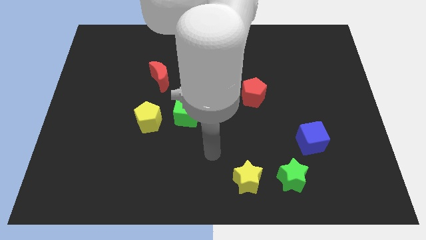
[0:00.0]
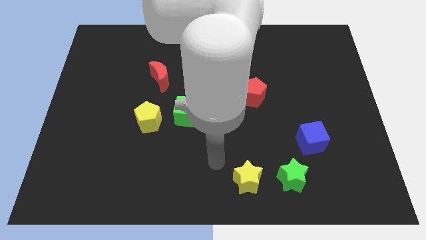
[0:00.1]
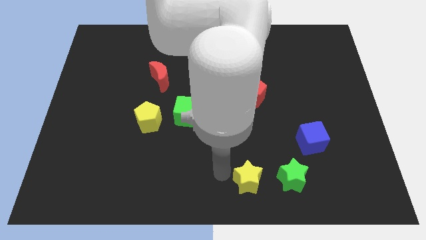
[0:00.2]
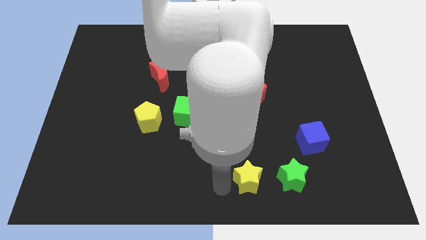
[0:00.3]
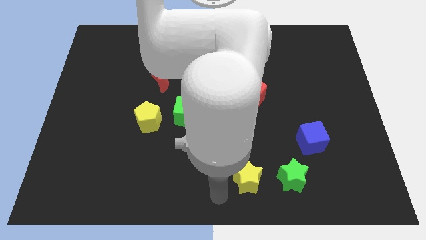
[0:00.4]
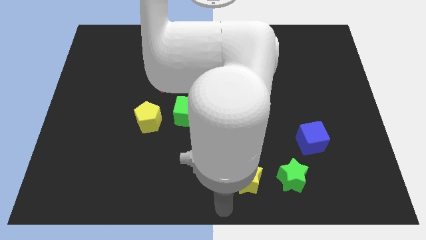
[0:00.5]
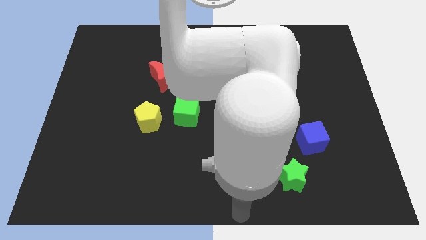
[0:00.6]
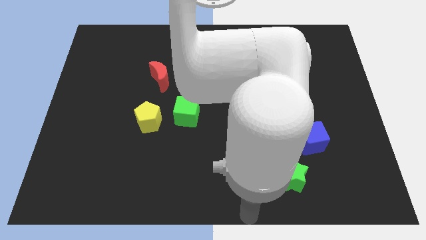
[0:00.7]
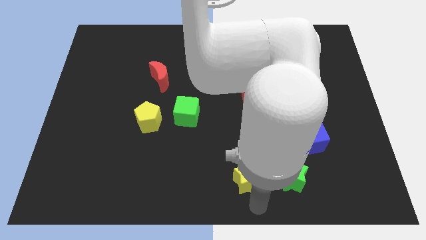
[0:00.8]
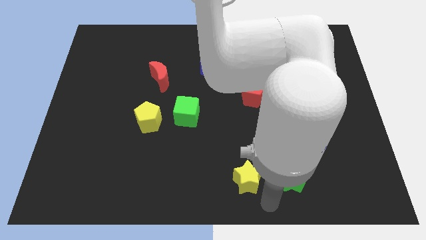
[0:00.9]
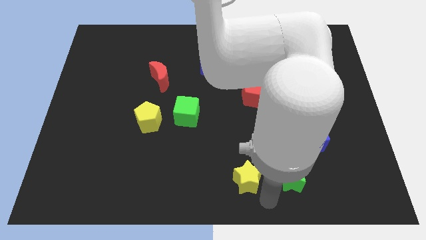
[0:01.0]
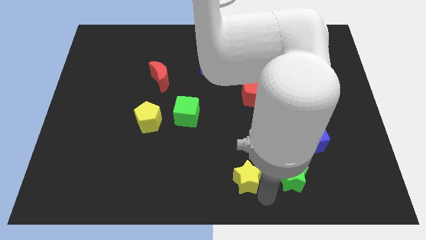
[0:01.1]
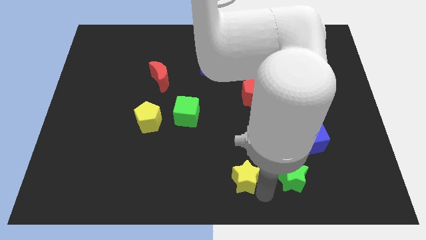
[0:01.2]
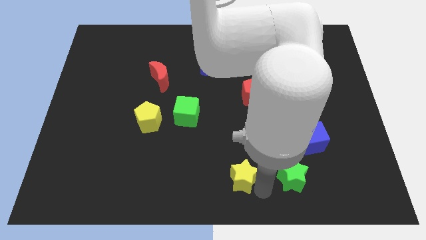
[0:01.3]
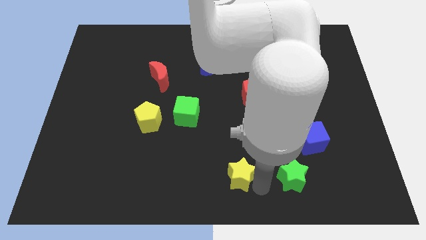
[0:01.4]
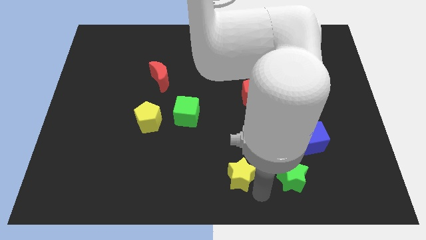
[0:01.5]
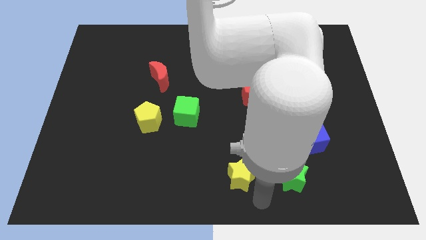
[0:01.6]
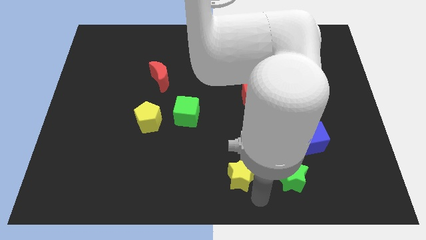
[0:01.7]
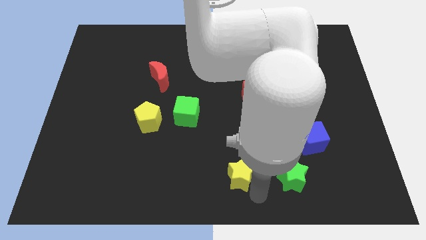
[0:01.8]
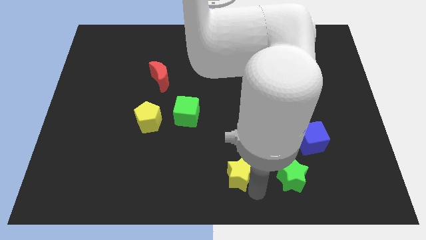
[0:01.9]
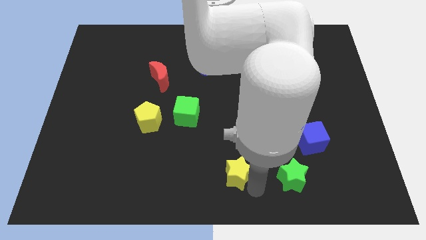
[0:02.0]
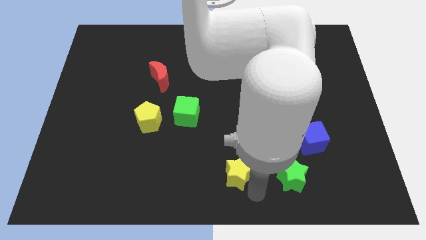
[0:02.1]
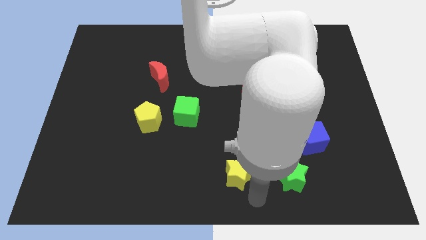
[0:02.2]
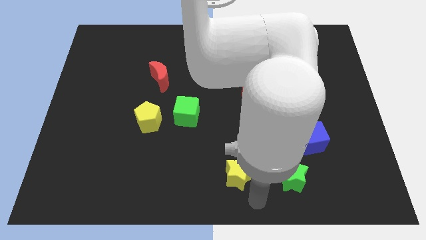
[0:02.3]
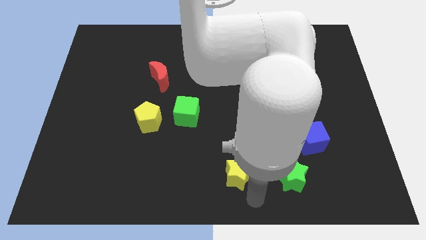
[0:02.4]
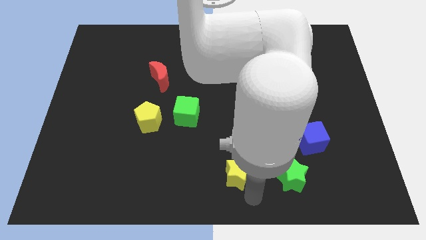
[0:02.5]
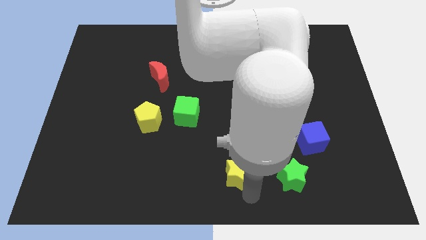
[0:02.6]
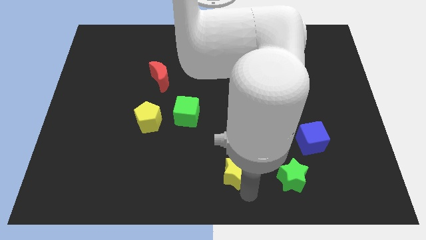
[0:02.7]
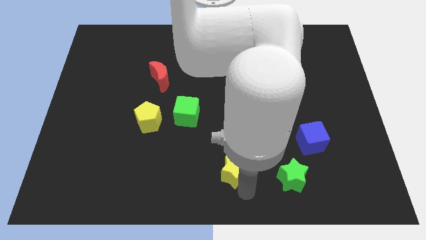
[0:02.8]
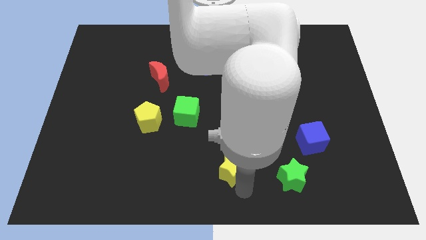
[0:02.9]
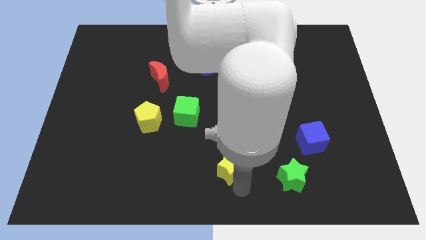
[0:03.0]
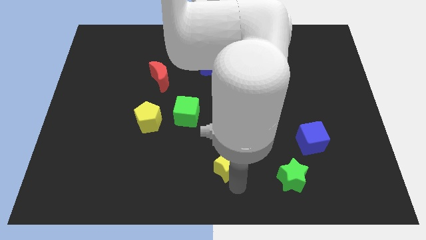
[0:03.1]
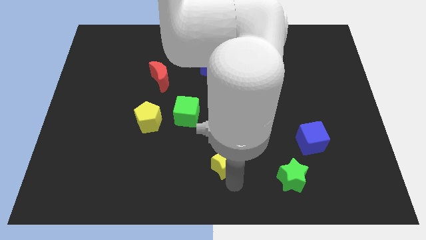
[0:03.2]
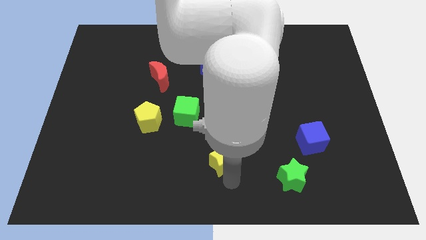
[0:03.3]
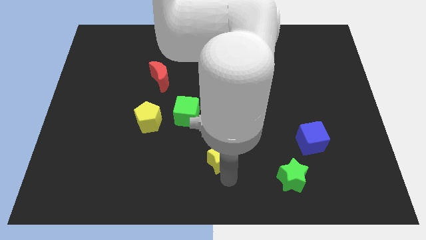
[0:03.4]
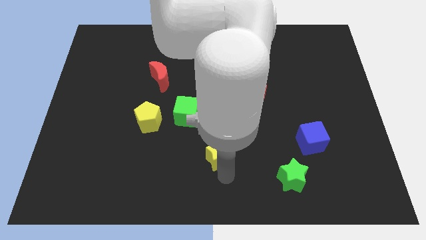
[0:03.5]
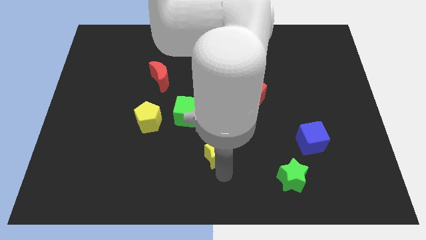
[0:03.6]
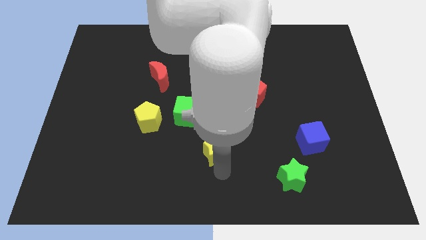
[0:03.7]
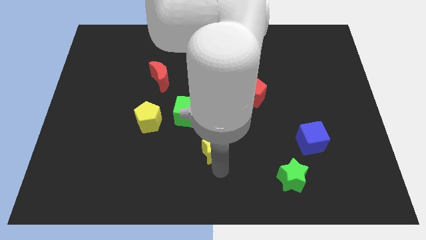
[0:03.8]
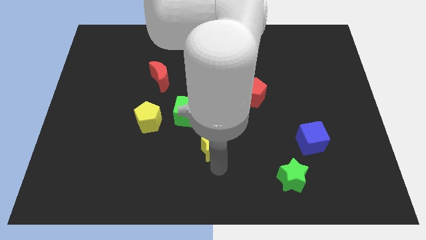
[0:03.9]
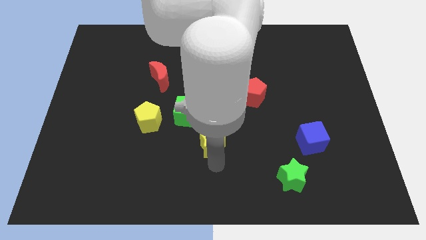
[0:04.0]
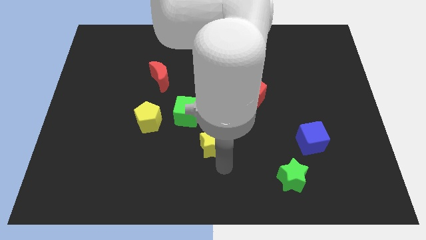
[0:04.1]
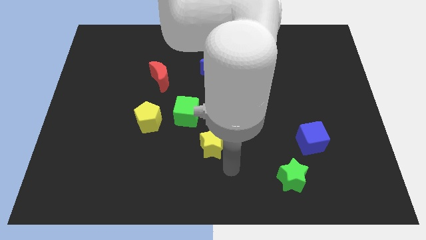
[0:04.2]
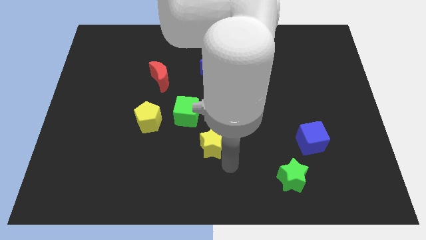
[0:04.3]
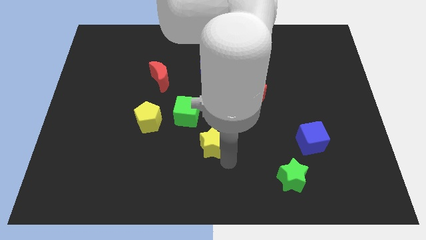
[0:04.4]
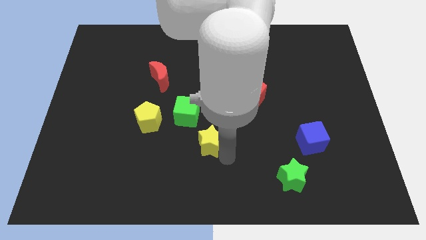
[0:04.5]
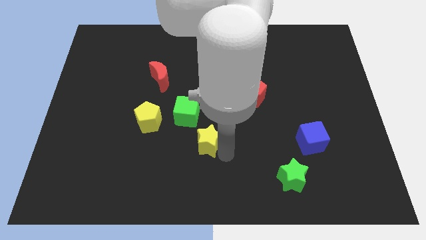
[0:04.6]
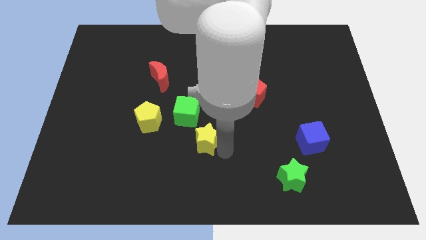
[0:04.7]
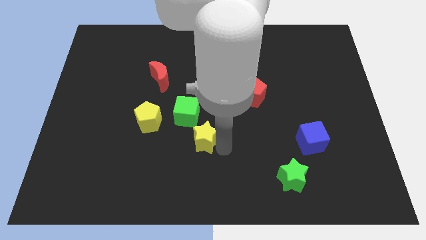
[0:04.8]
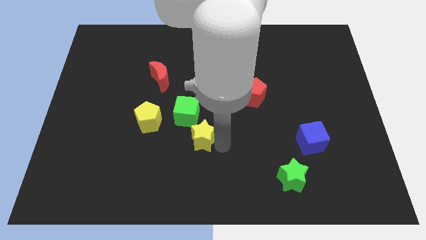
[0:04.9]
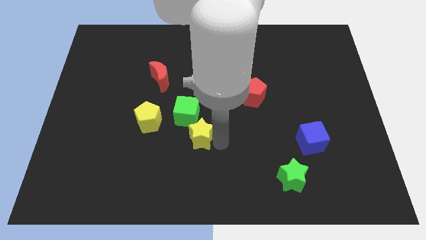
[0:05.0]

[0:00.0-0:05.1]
move the yellow star to the right of the yellow pentagon

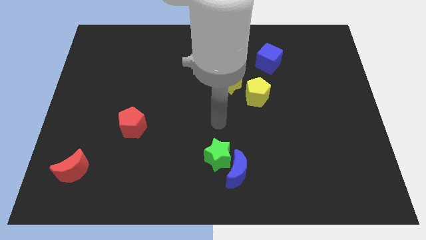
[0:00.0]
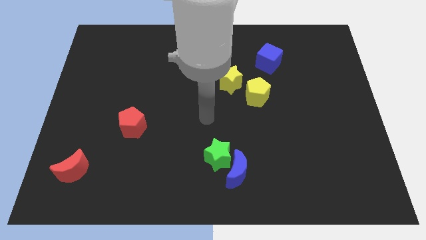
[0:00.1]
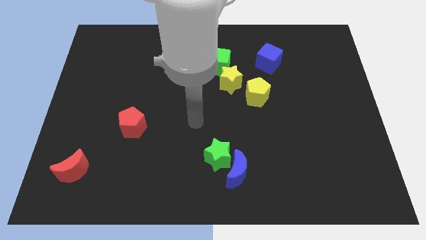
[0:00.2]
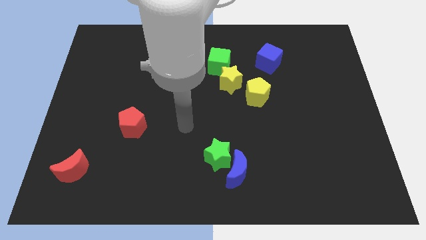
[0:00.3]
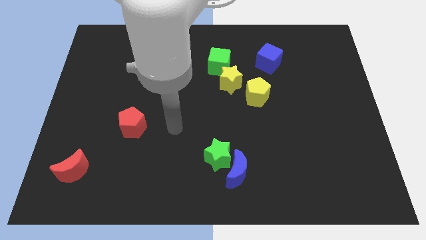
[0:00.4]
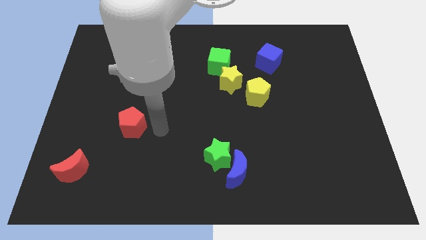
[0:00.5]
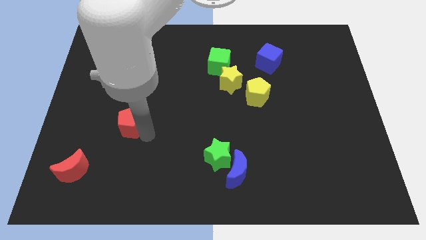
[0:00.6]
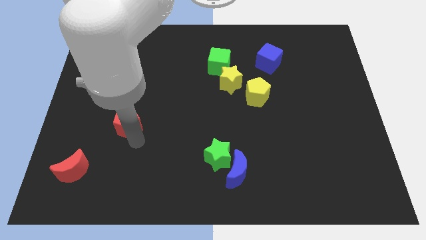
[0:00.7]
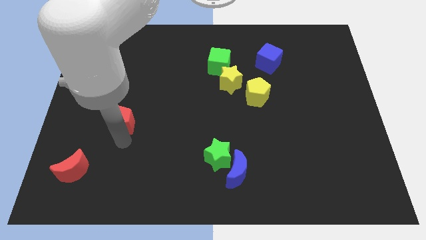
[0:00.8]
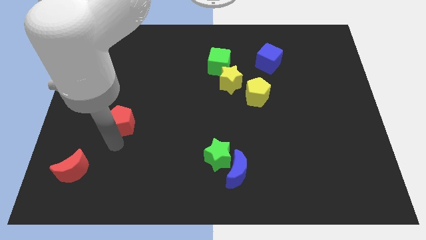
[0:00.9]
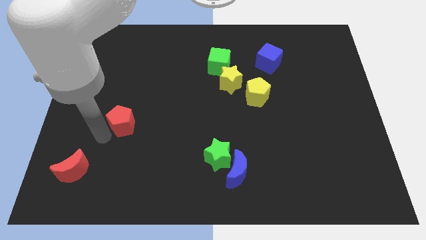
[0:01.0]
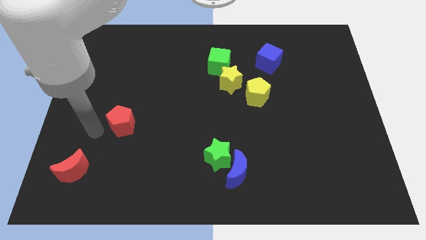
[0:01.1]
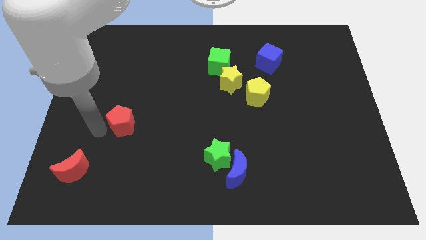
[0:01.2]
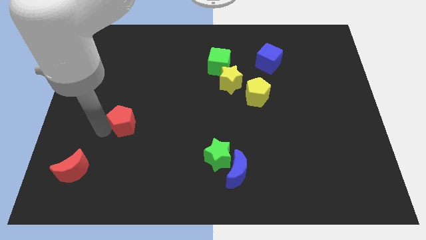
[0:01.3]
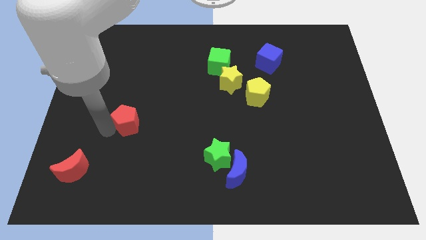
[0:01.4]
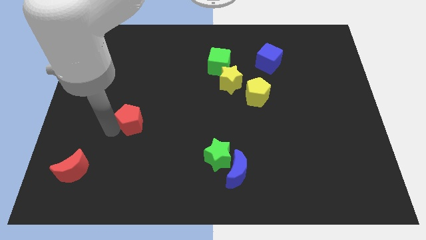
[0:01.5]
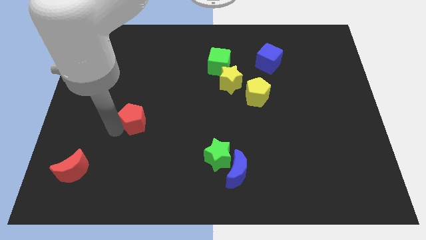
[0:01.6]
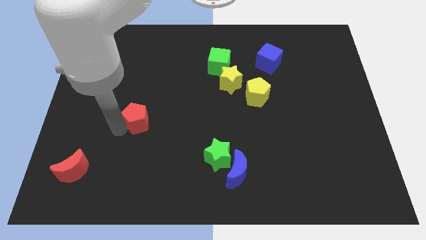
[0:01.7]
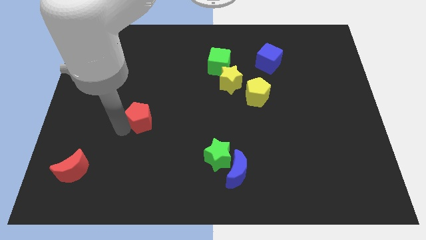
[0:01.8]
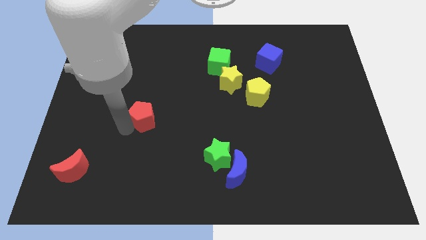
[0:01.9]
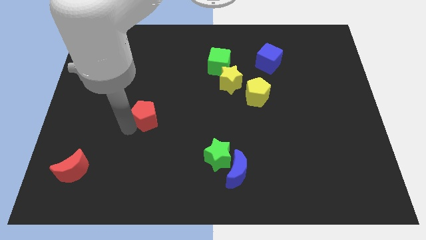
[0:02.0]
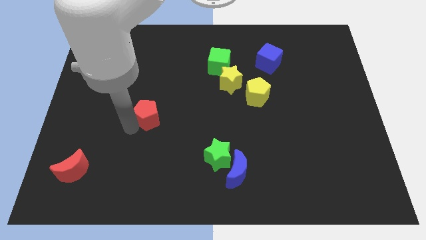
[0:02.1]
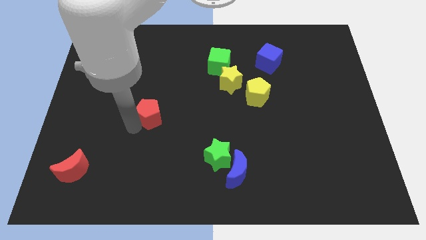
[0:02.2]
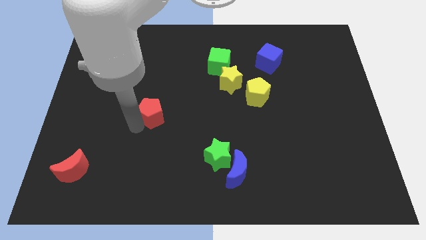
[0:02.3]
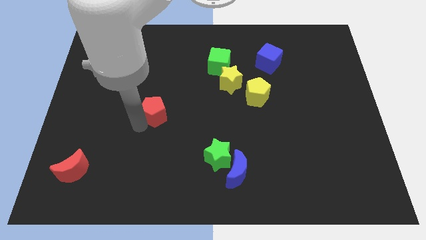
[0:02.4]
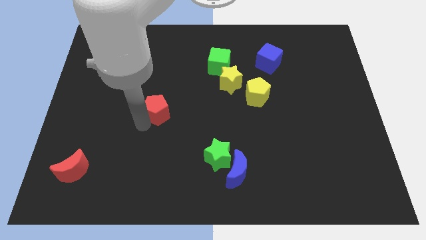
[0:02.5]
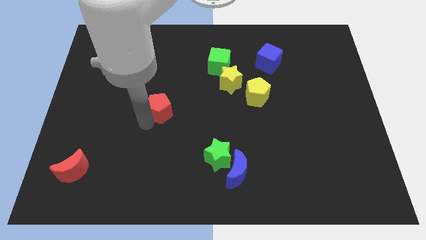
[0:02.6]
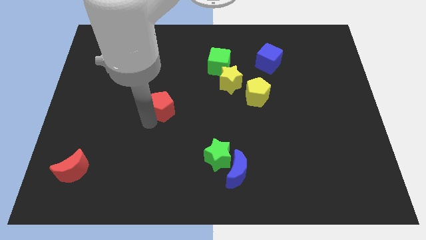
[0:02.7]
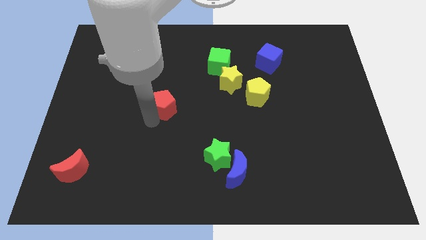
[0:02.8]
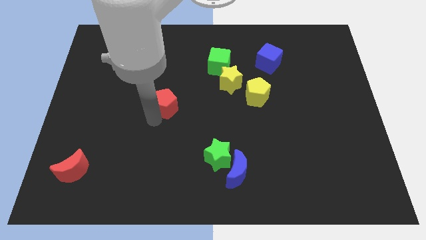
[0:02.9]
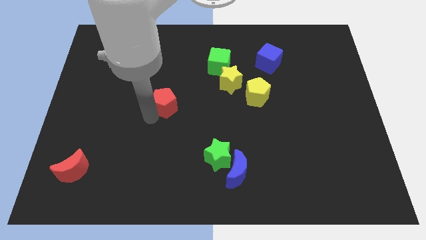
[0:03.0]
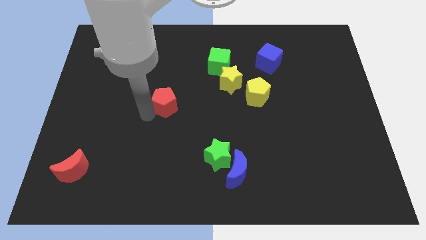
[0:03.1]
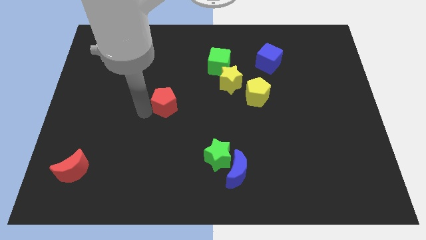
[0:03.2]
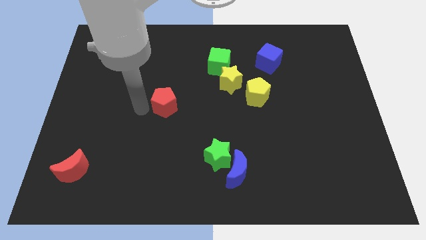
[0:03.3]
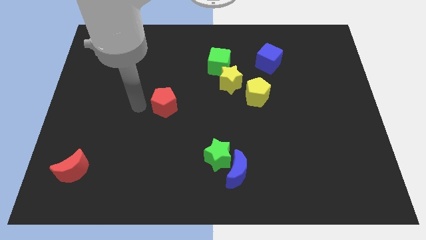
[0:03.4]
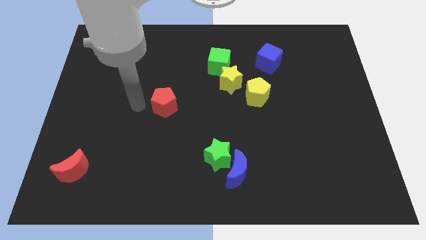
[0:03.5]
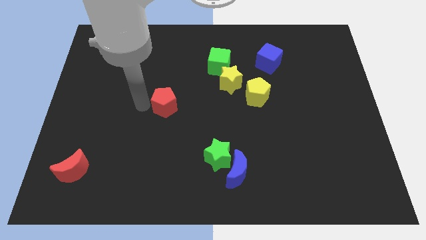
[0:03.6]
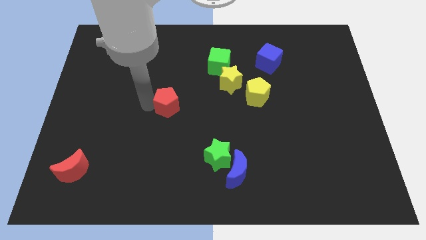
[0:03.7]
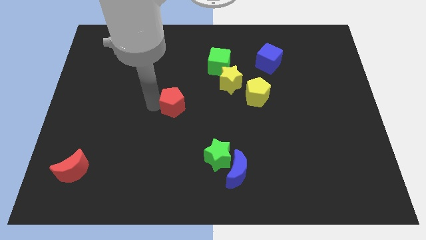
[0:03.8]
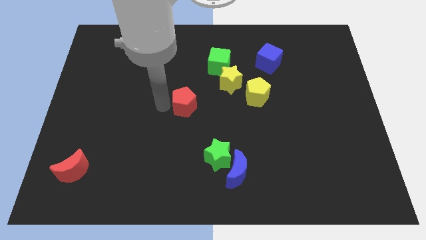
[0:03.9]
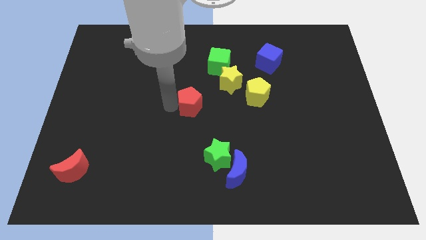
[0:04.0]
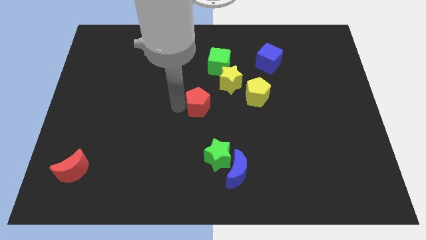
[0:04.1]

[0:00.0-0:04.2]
slide the red pentagon left of the yellow pentagon
